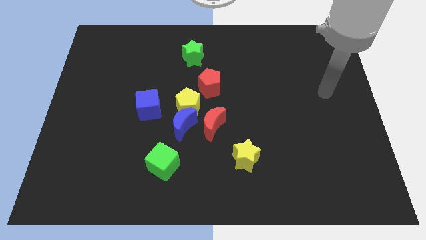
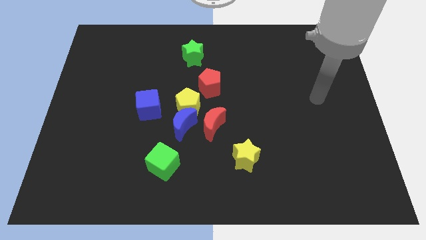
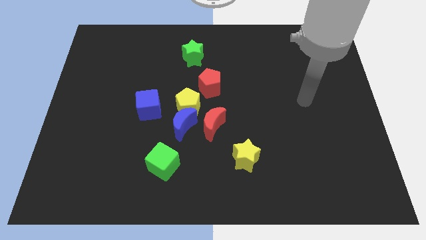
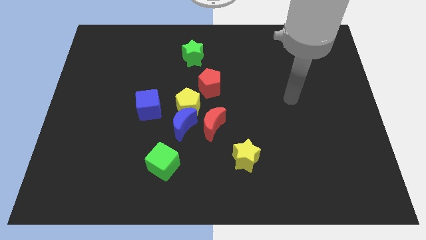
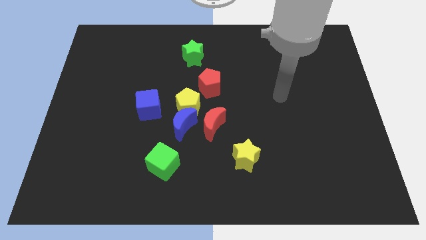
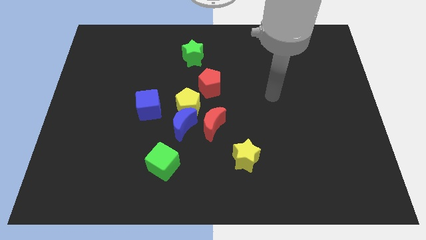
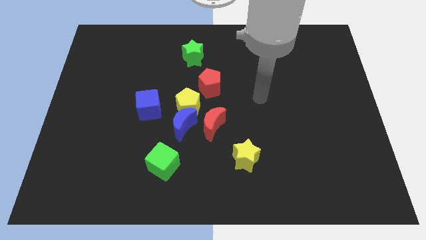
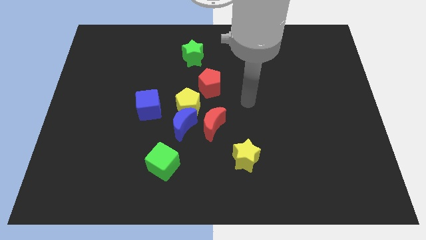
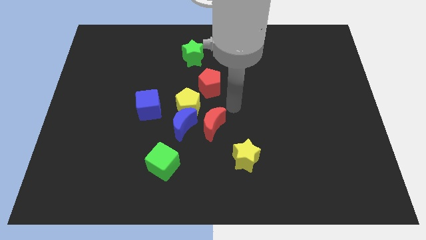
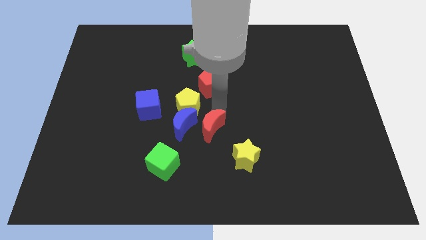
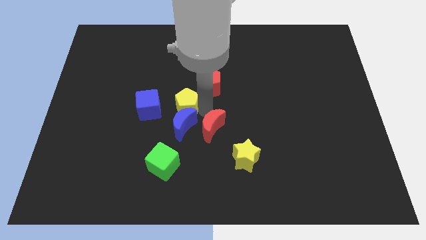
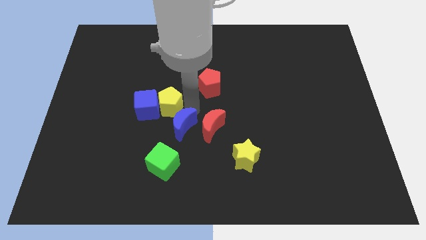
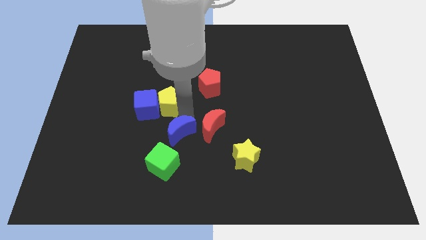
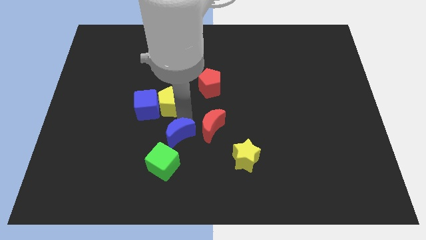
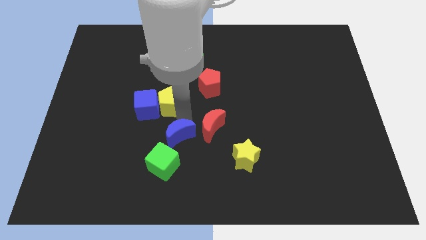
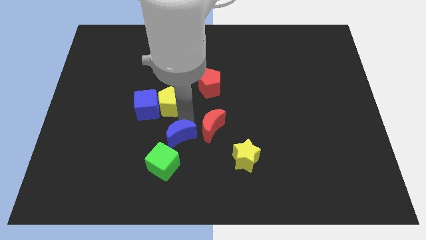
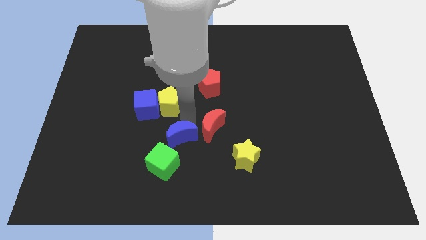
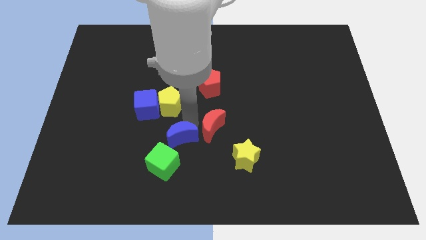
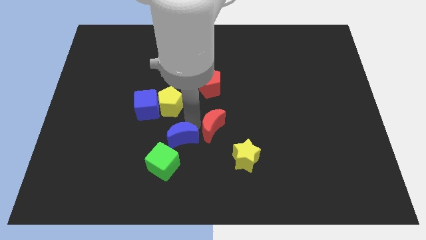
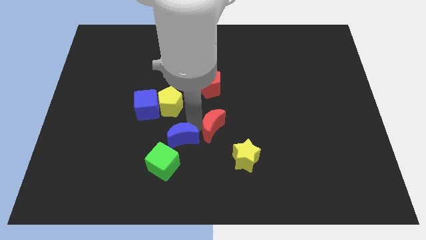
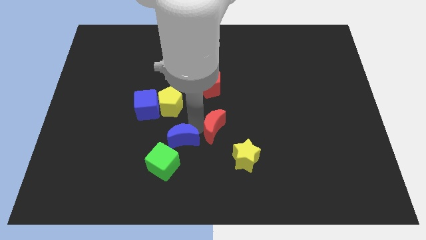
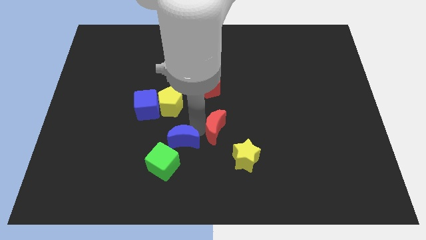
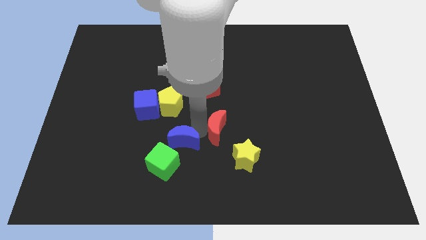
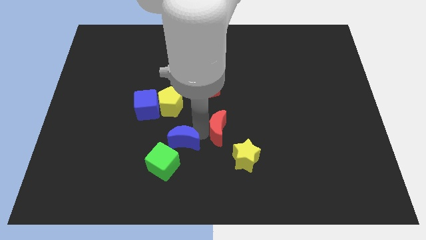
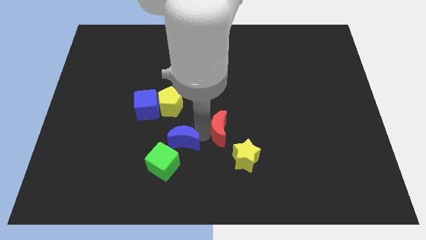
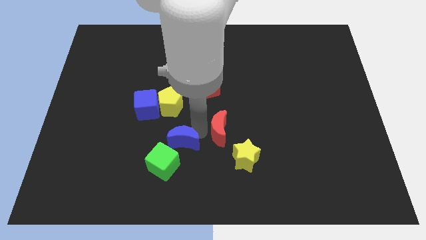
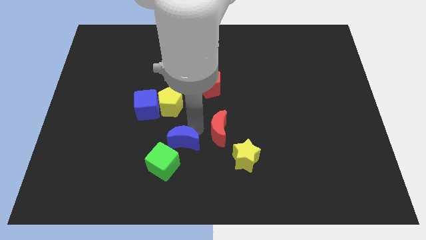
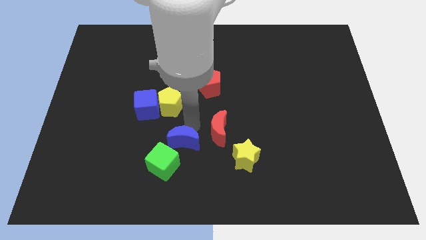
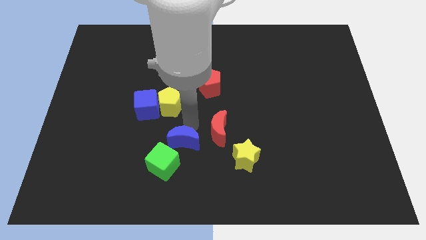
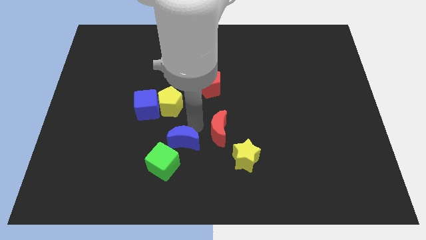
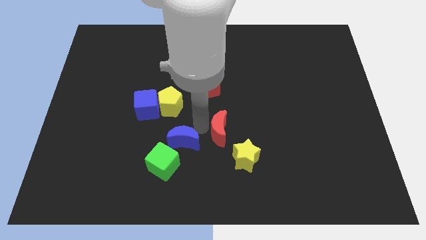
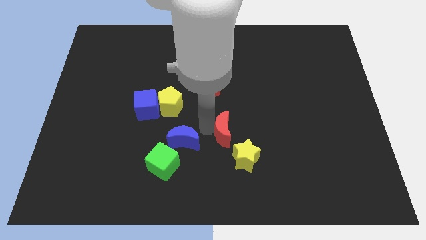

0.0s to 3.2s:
move the red moon away from the blue moon and yellow pentagon

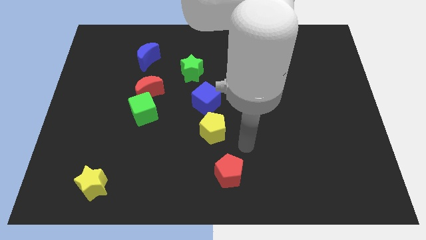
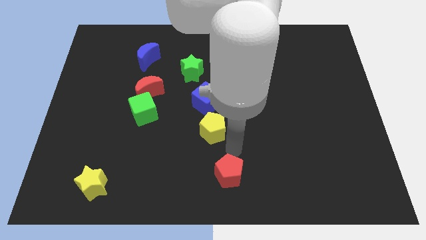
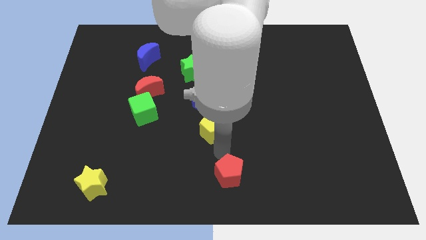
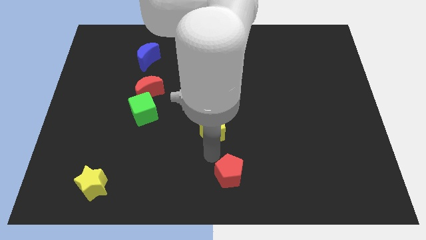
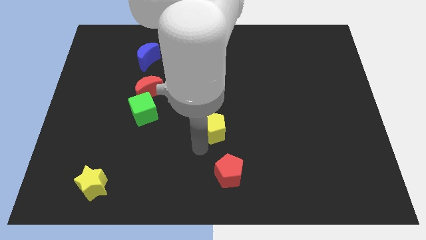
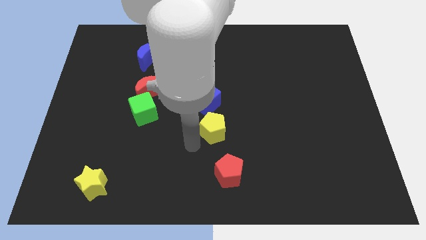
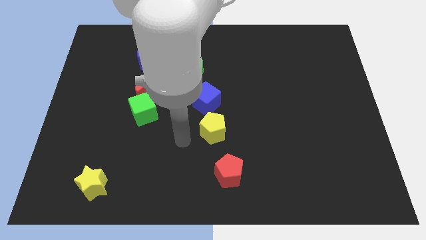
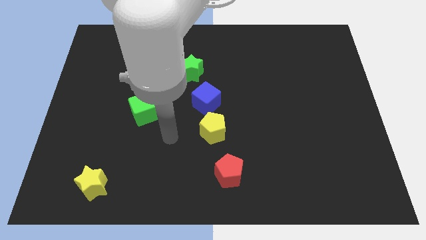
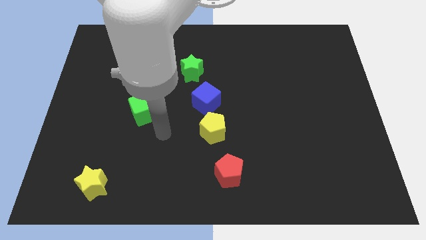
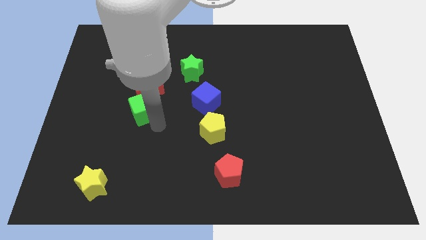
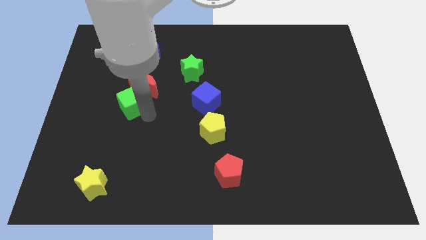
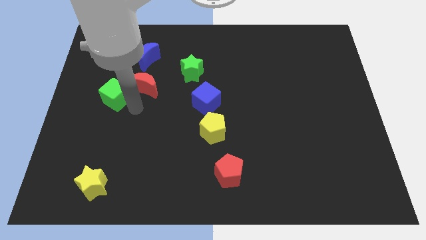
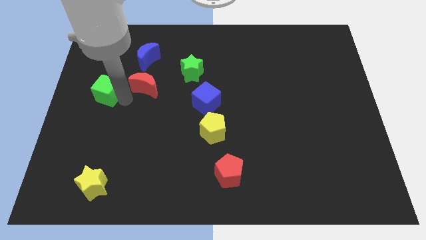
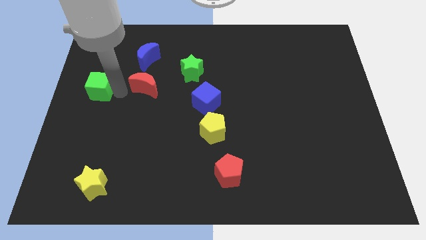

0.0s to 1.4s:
move the red moon away from the green cube

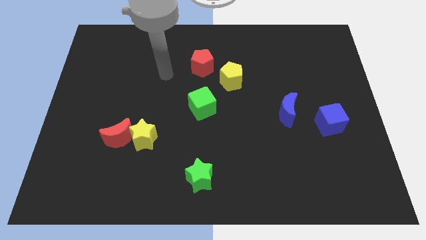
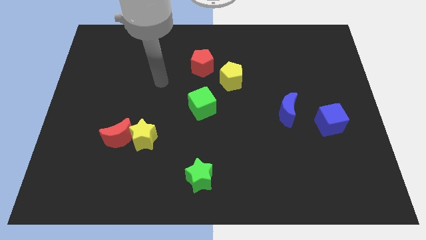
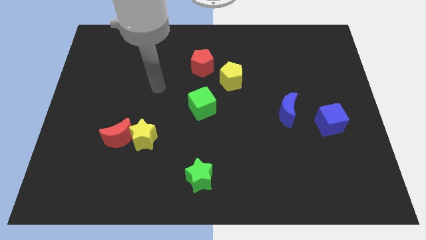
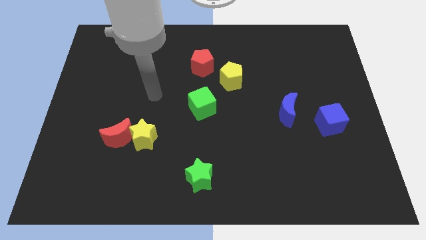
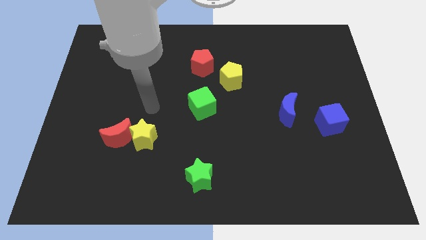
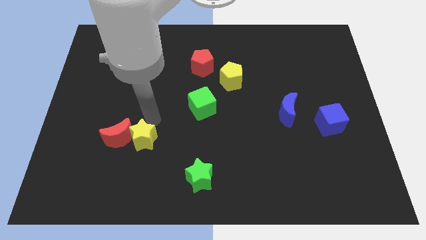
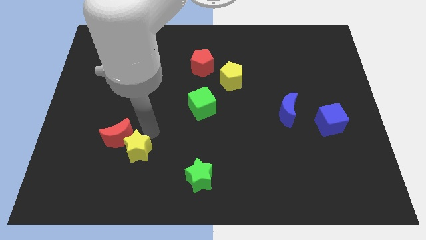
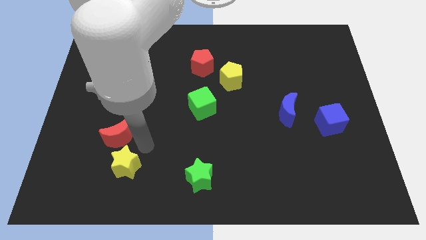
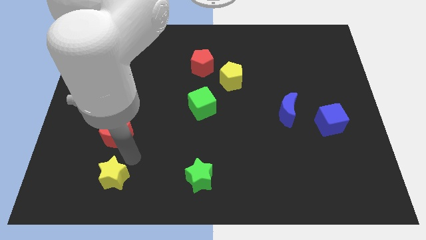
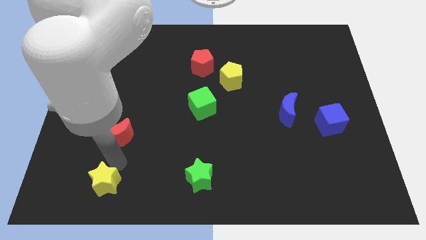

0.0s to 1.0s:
pull the red moon apart from the yellow star

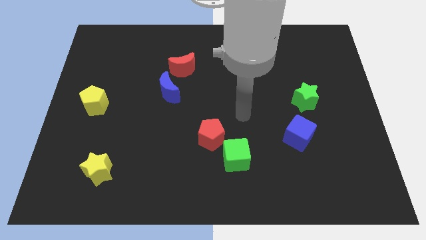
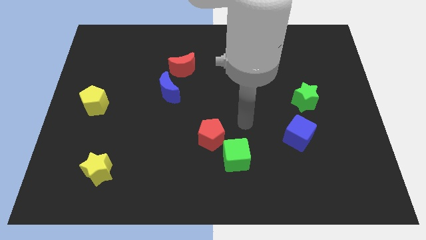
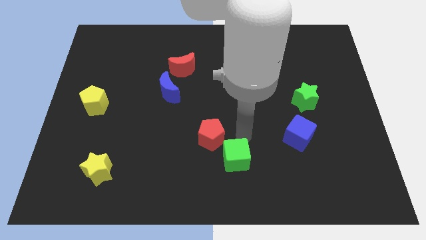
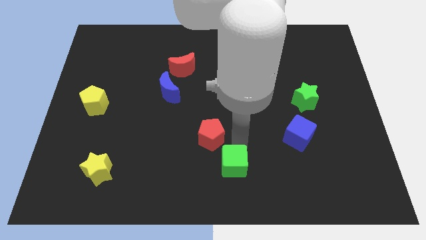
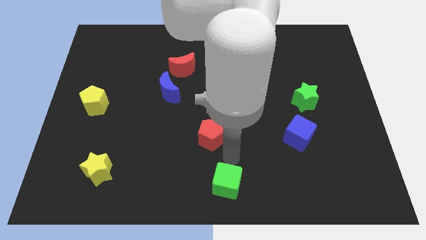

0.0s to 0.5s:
separate the red pentagon from the green cube

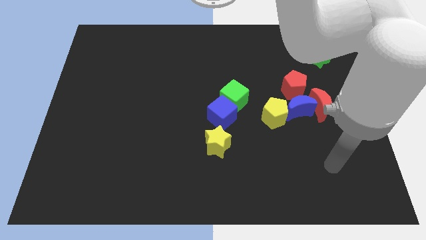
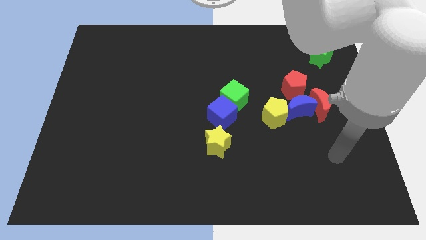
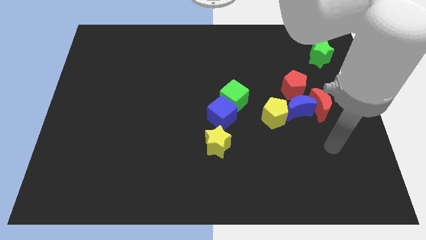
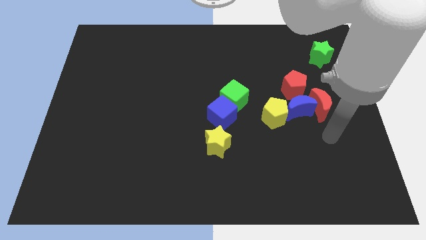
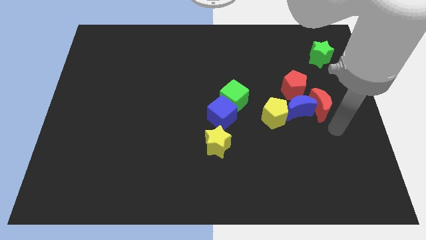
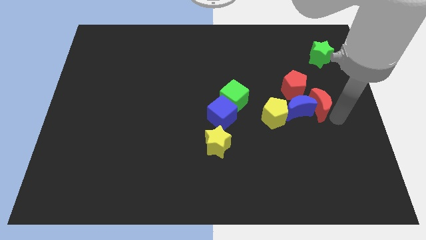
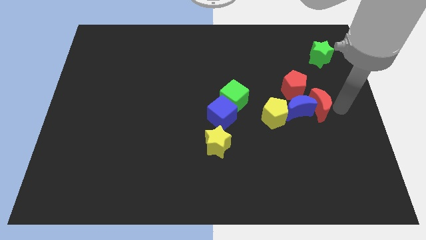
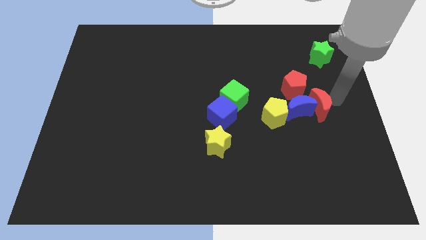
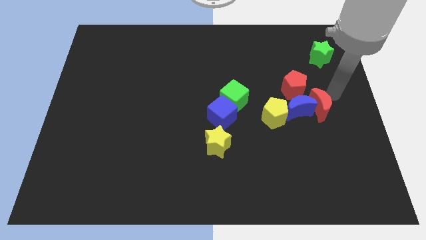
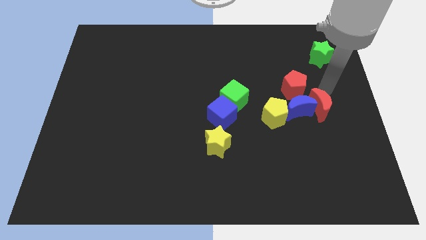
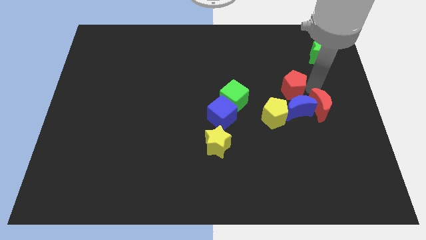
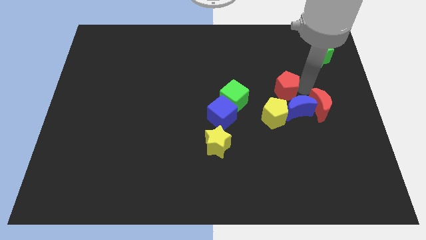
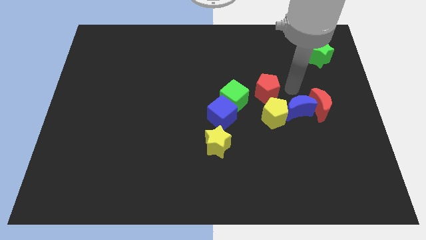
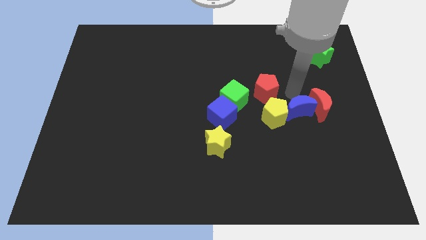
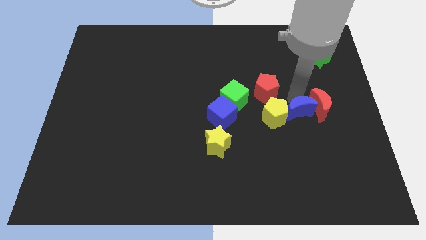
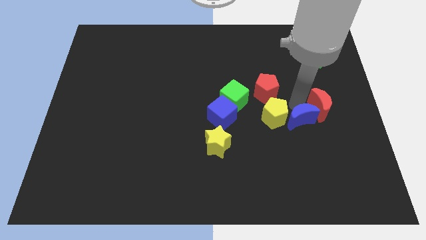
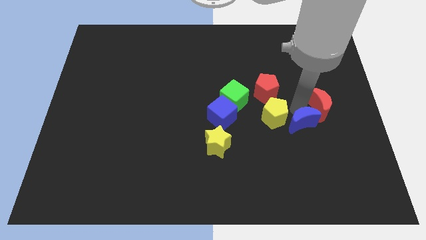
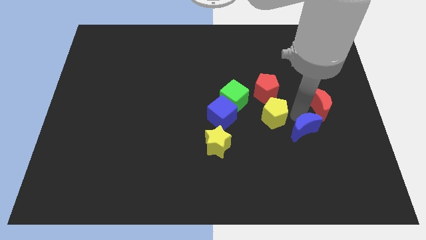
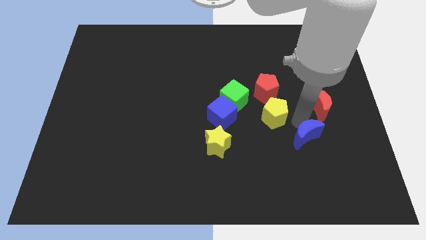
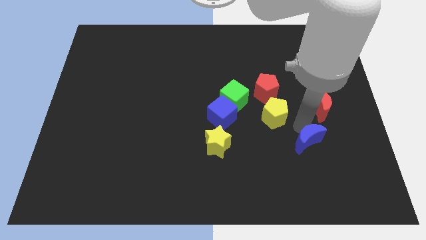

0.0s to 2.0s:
pull the blue moon apart from the red moon, yellow pentagon, and red pentagon

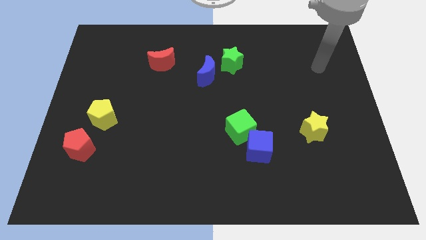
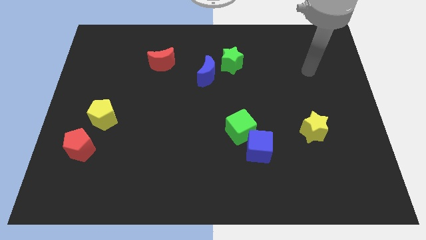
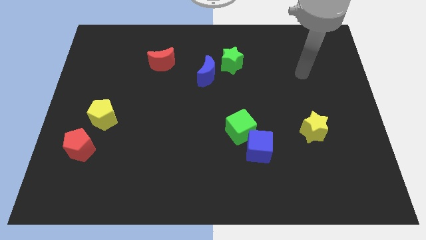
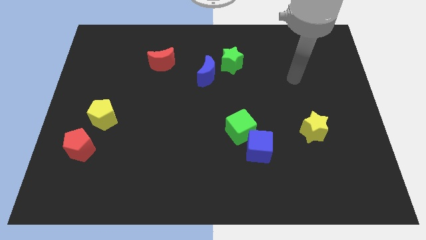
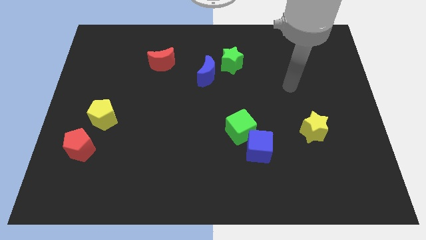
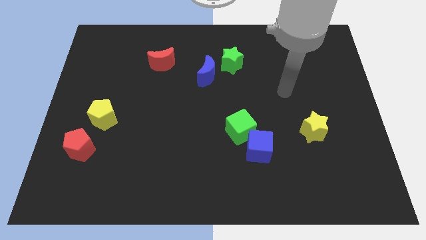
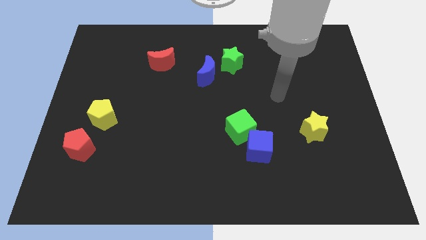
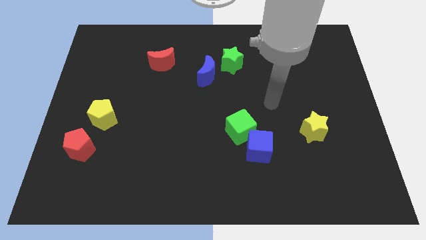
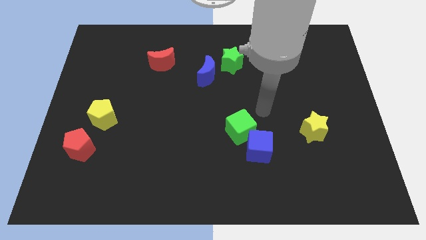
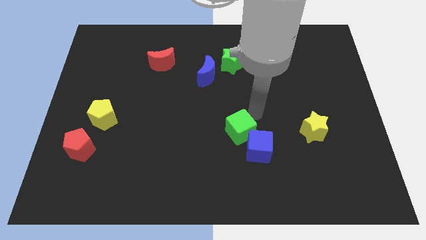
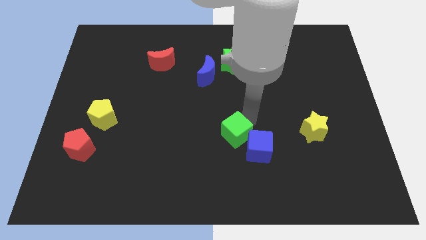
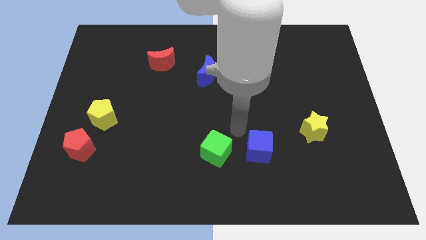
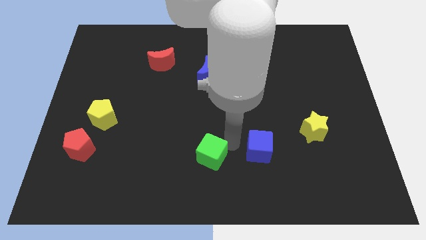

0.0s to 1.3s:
pull the blue cube apart from the green cube
